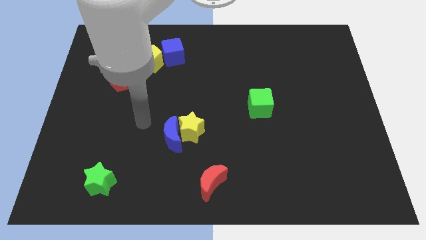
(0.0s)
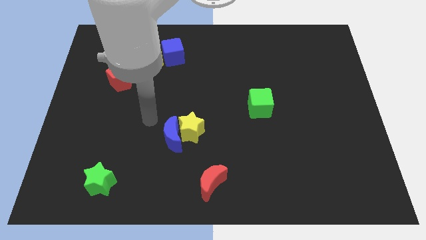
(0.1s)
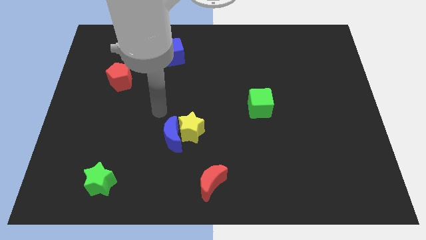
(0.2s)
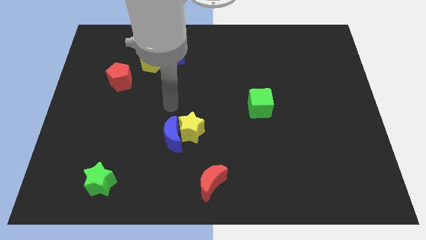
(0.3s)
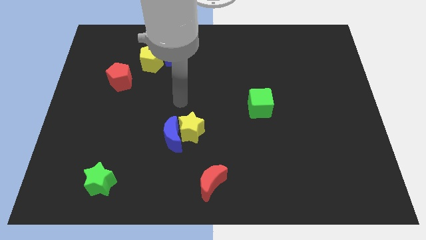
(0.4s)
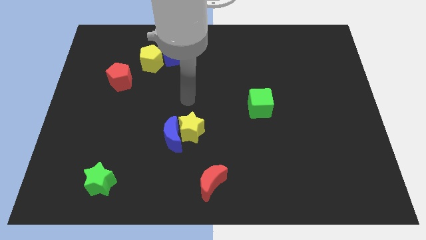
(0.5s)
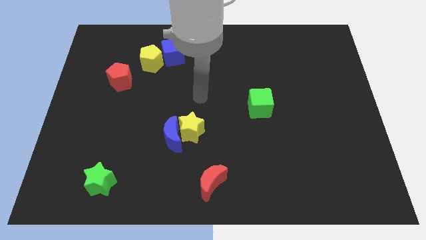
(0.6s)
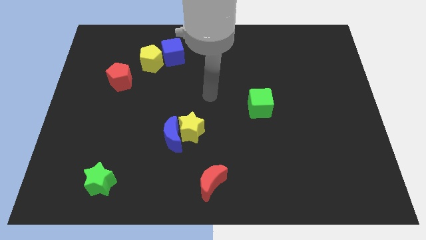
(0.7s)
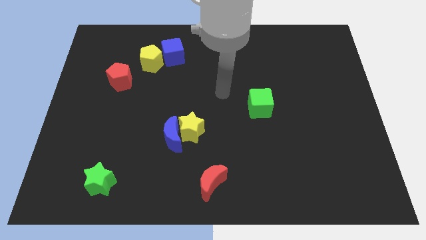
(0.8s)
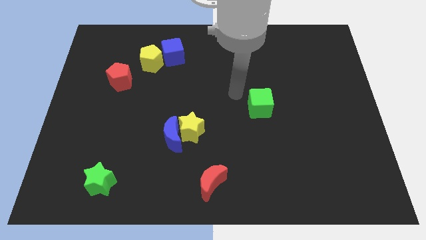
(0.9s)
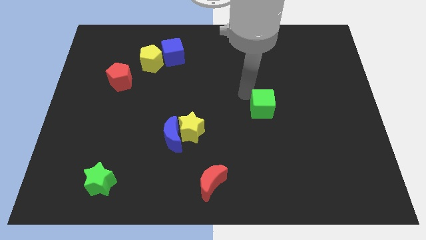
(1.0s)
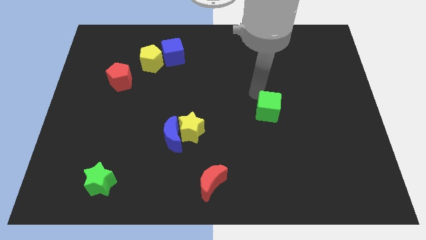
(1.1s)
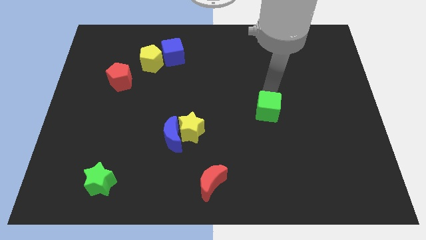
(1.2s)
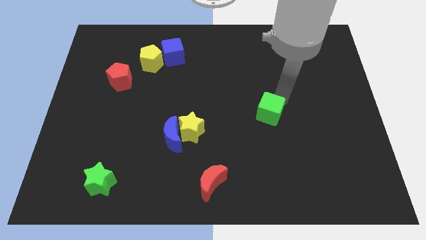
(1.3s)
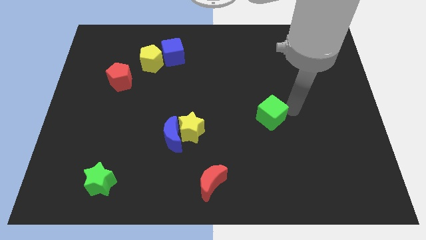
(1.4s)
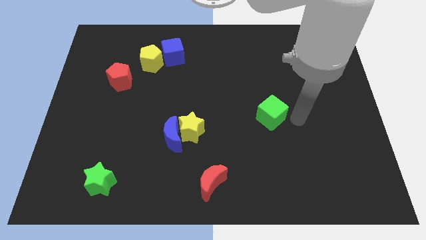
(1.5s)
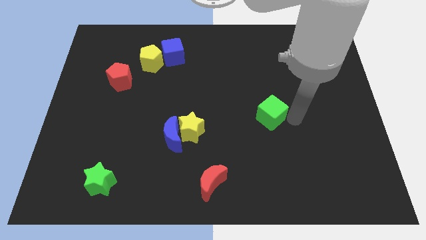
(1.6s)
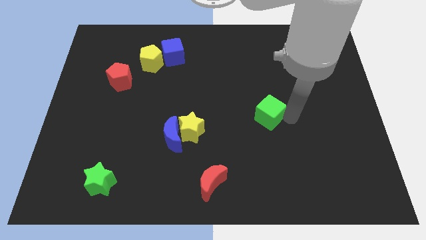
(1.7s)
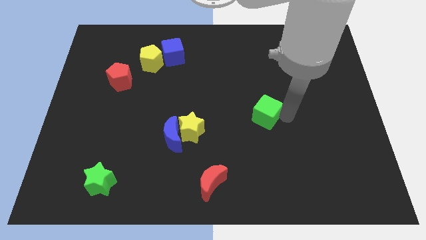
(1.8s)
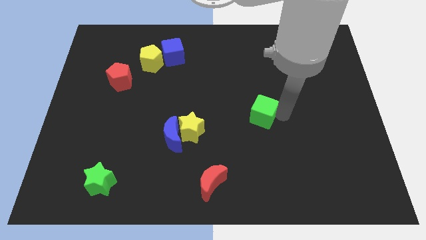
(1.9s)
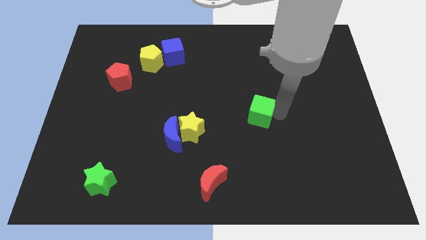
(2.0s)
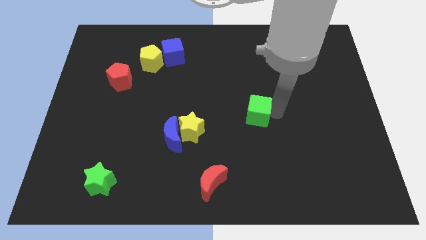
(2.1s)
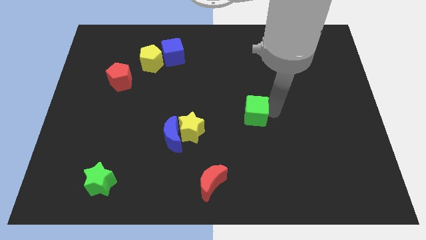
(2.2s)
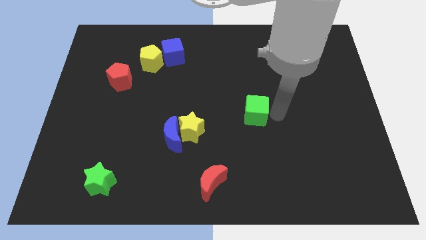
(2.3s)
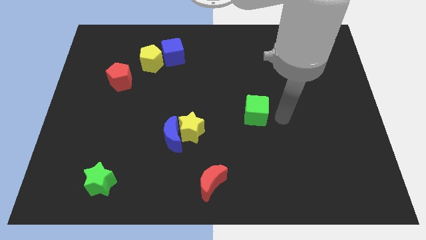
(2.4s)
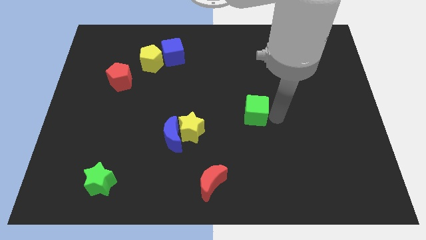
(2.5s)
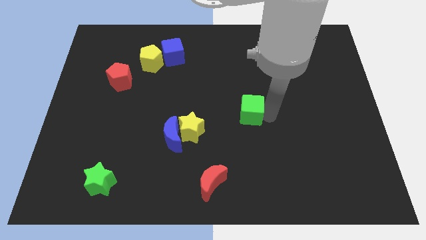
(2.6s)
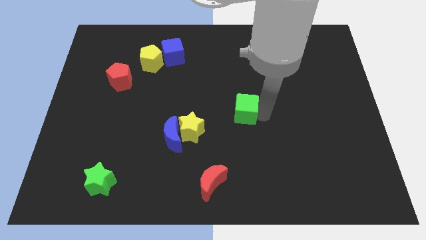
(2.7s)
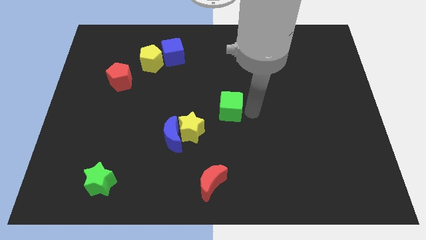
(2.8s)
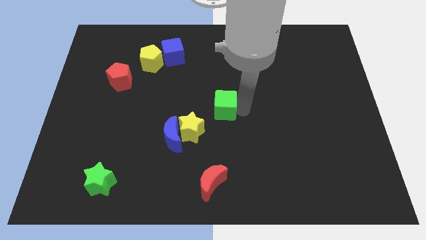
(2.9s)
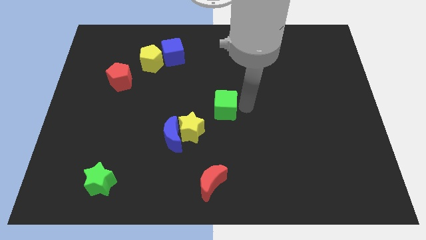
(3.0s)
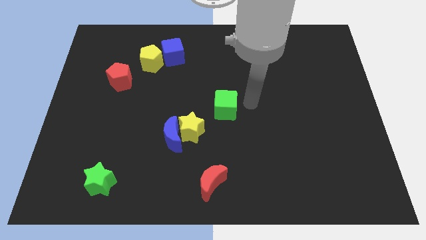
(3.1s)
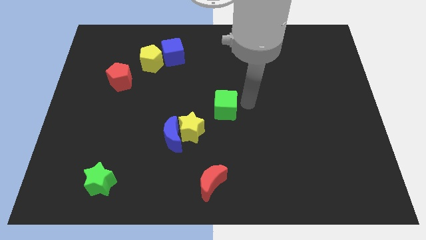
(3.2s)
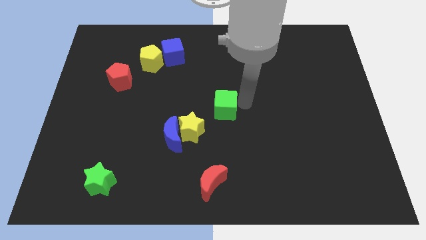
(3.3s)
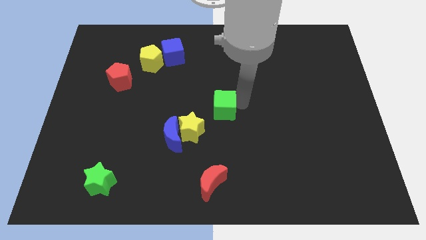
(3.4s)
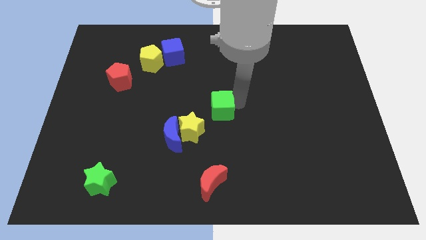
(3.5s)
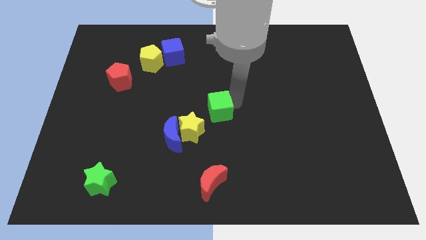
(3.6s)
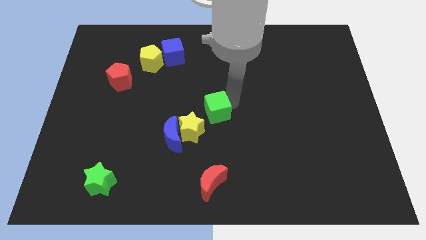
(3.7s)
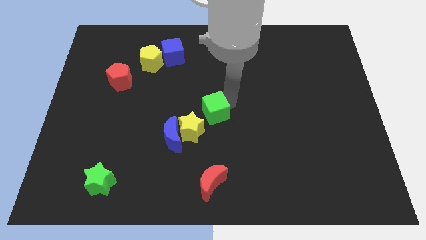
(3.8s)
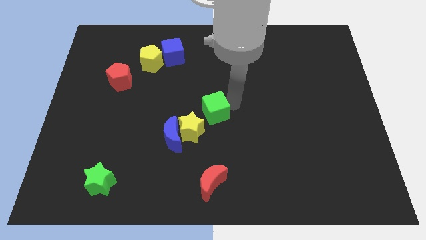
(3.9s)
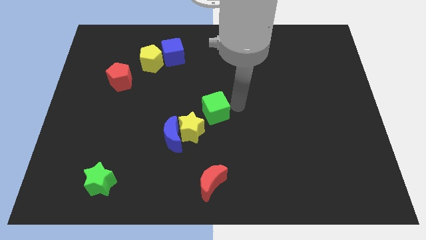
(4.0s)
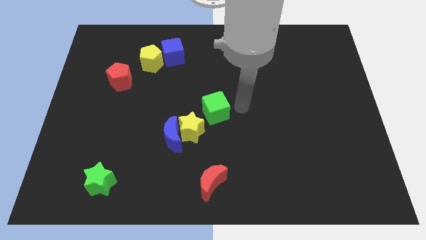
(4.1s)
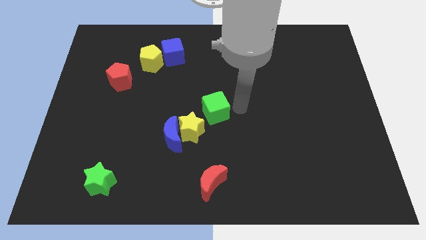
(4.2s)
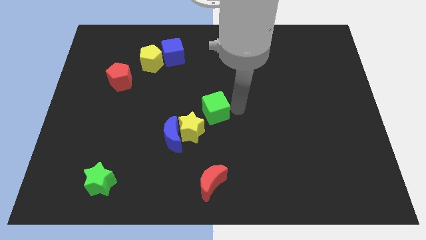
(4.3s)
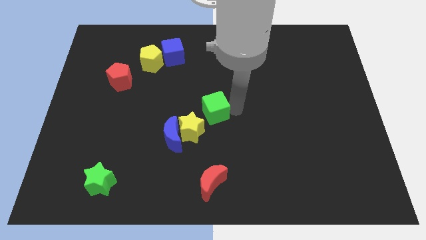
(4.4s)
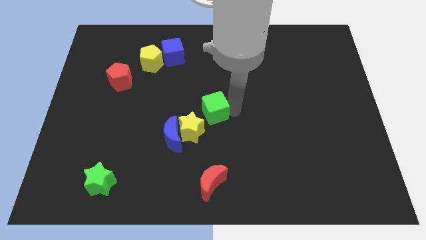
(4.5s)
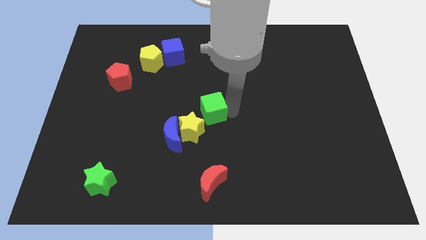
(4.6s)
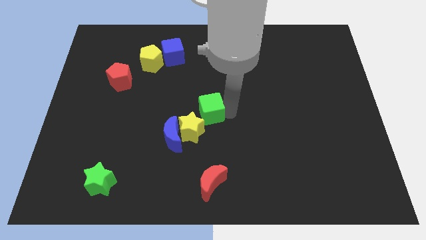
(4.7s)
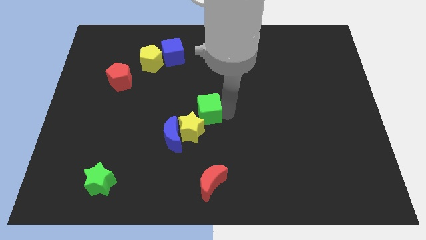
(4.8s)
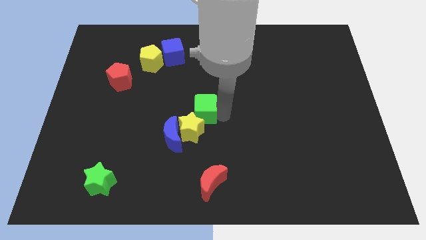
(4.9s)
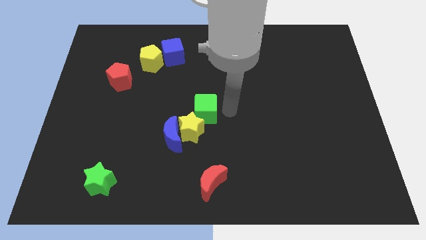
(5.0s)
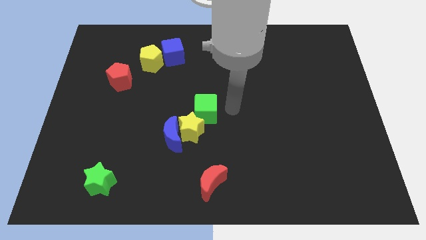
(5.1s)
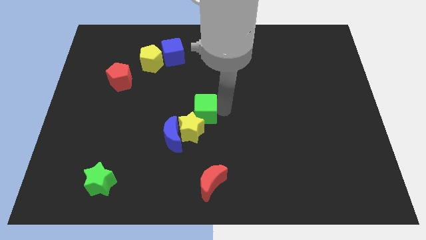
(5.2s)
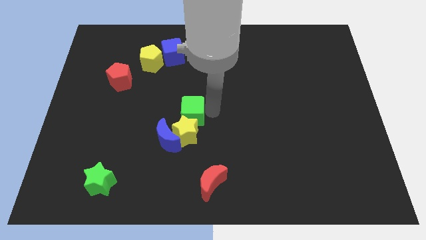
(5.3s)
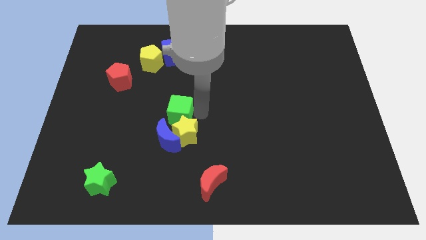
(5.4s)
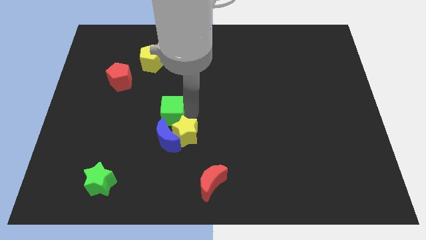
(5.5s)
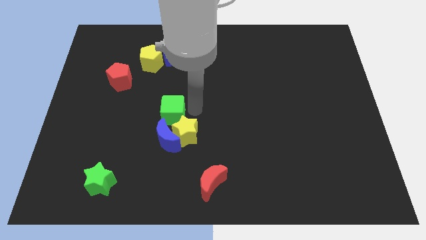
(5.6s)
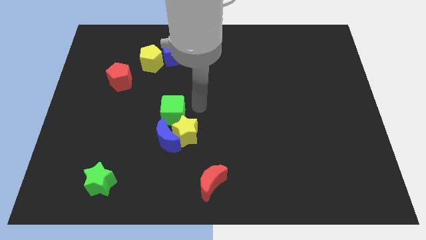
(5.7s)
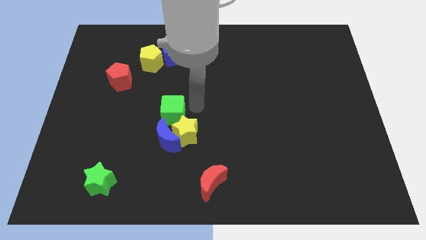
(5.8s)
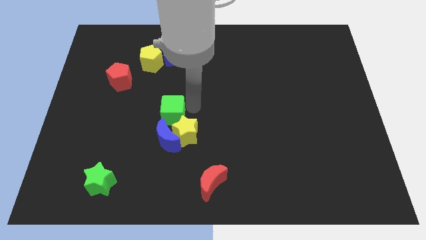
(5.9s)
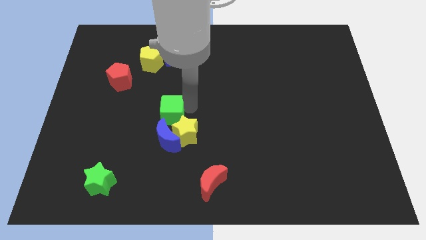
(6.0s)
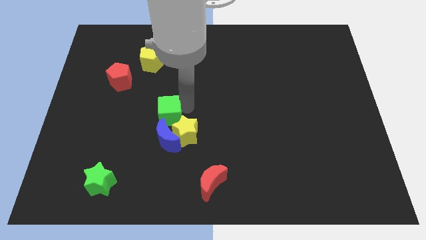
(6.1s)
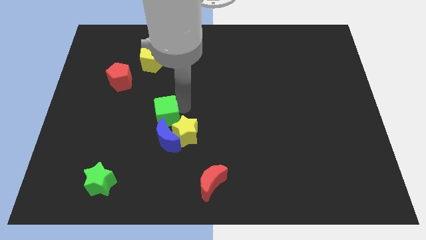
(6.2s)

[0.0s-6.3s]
push the green cube to the top left side of the blue moon

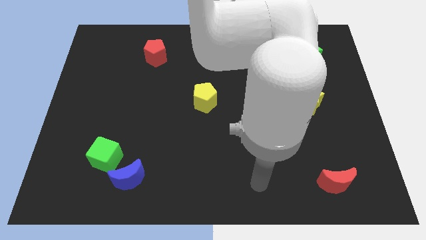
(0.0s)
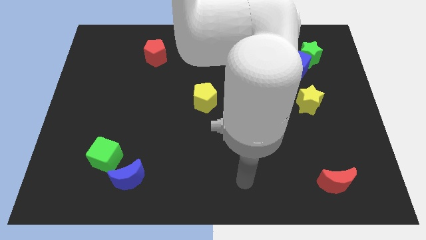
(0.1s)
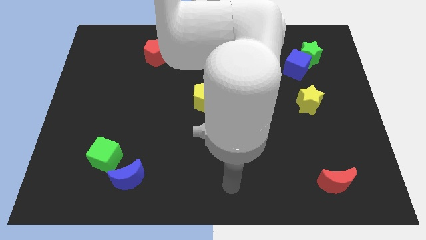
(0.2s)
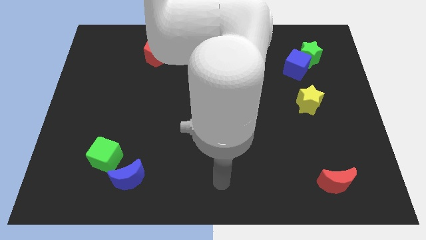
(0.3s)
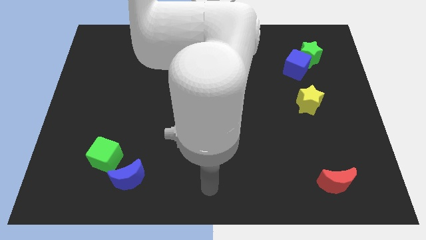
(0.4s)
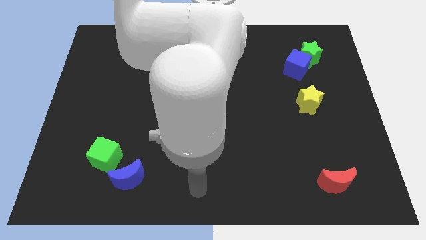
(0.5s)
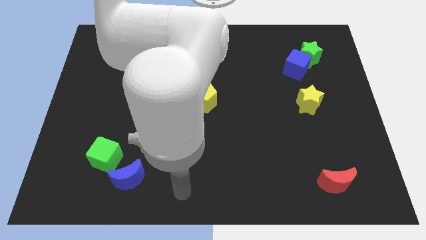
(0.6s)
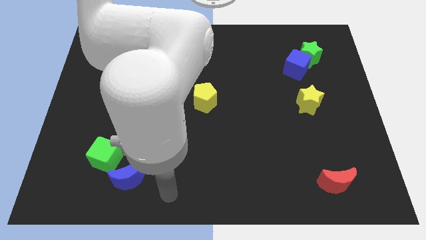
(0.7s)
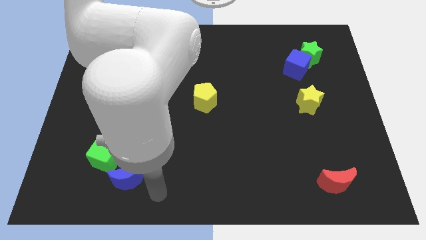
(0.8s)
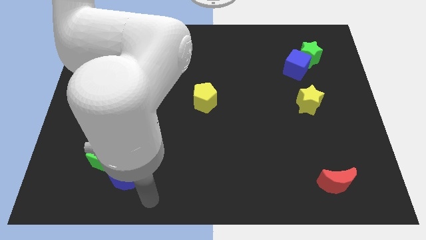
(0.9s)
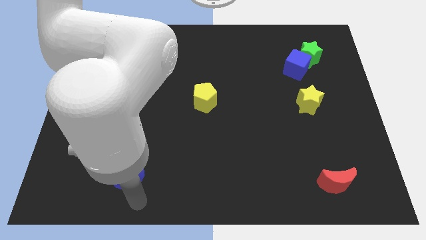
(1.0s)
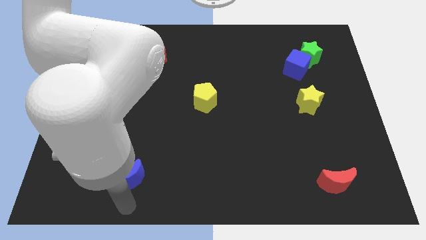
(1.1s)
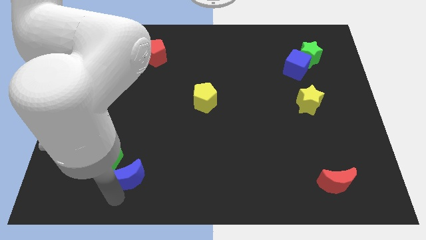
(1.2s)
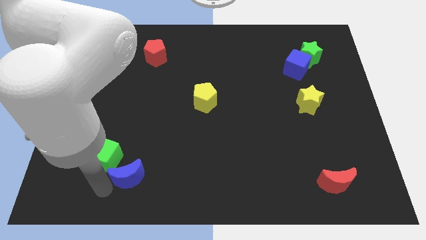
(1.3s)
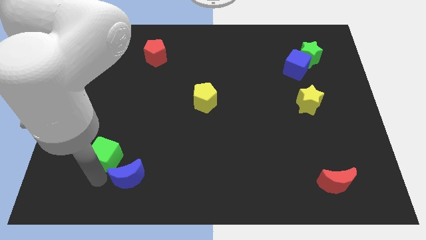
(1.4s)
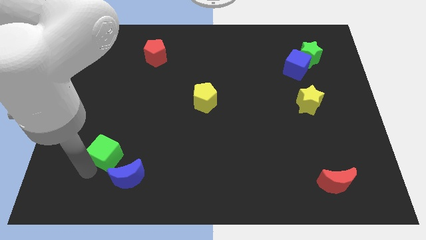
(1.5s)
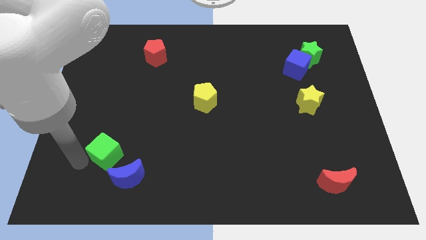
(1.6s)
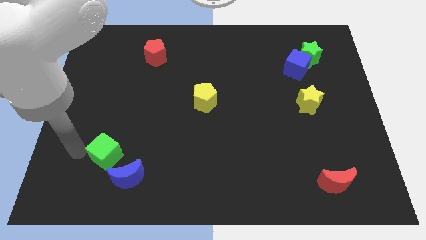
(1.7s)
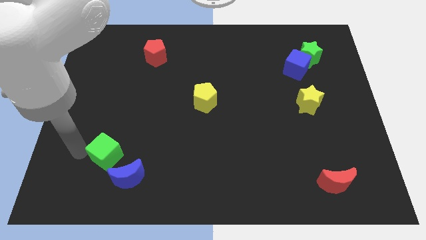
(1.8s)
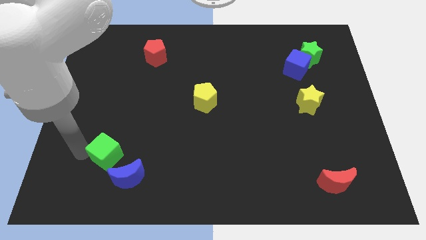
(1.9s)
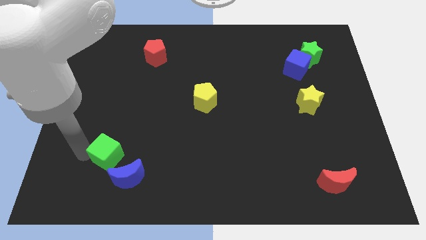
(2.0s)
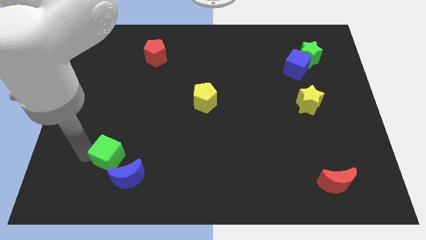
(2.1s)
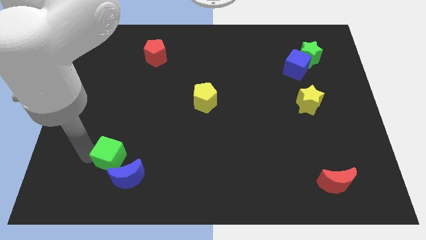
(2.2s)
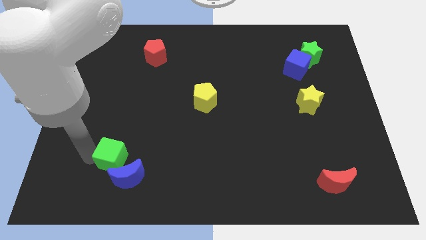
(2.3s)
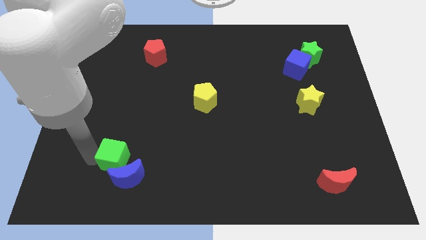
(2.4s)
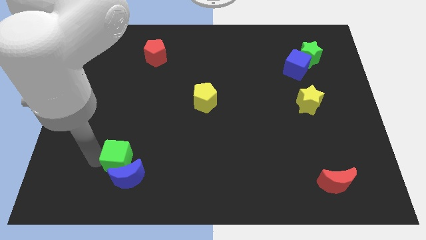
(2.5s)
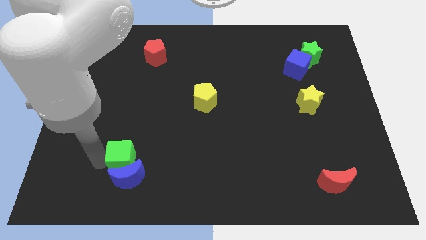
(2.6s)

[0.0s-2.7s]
push the green cube diagonally up and to the right of the blue moon
